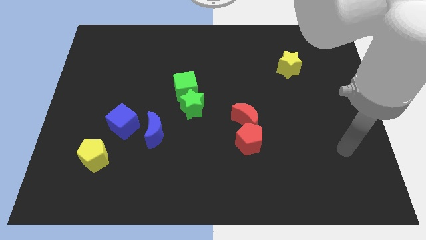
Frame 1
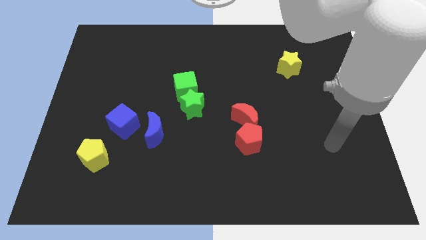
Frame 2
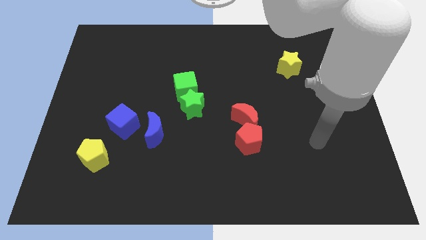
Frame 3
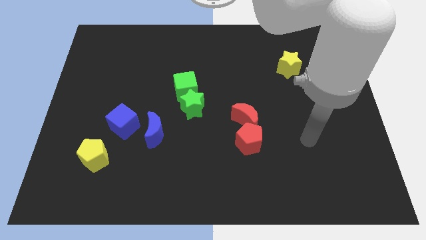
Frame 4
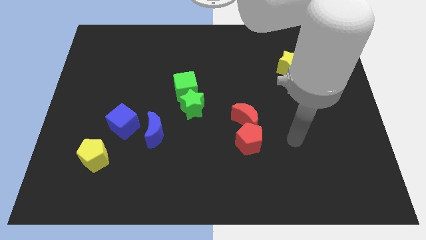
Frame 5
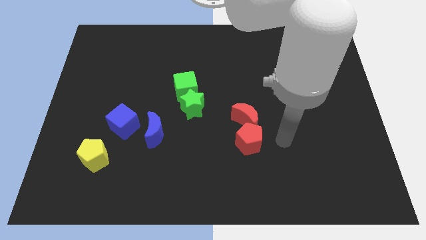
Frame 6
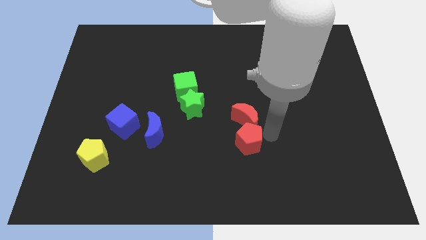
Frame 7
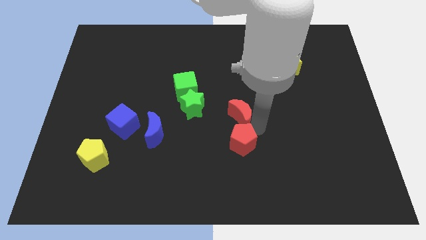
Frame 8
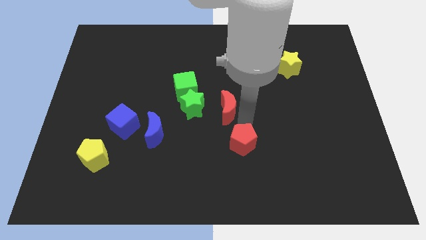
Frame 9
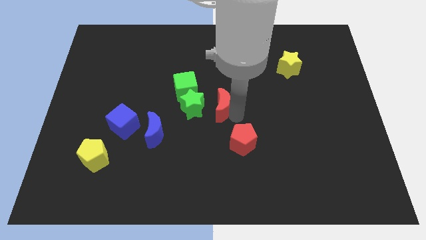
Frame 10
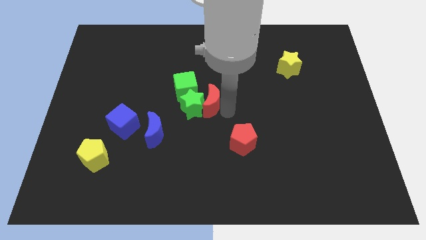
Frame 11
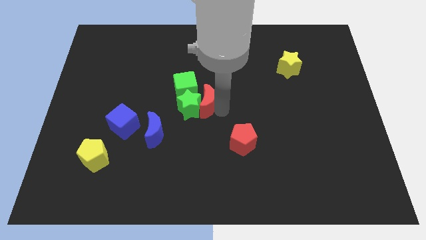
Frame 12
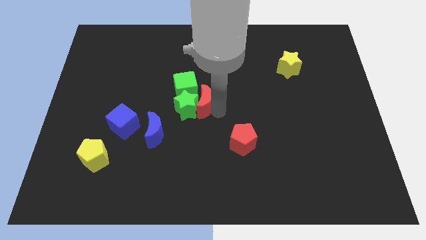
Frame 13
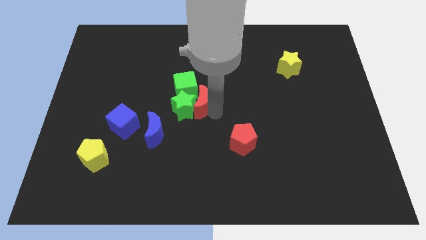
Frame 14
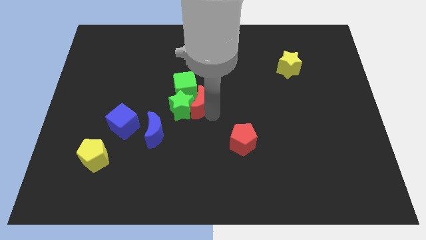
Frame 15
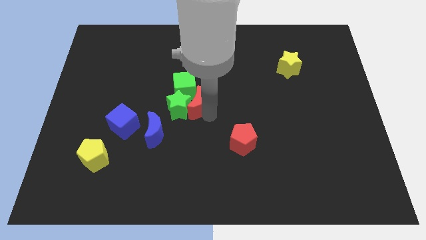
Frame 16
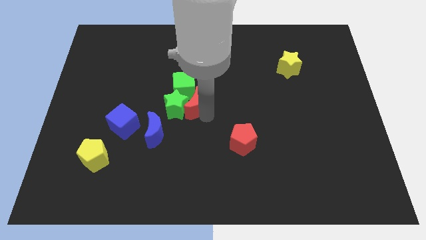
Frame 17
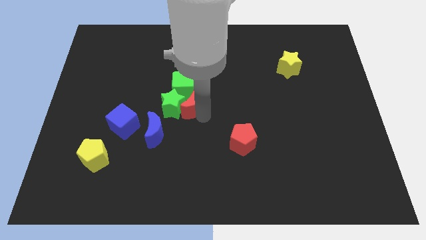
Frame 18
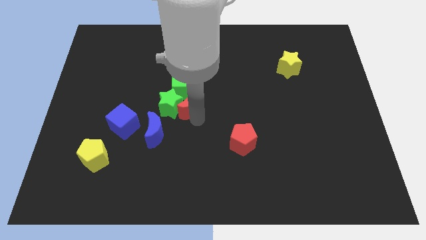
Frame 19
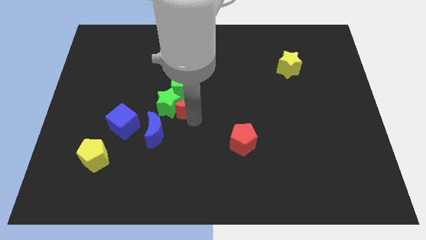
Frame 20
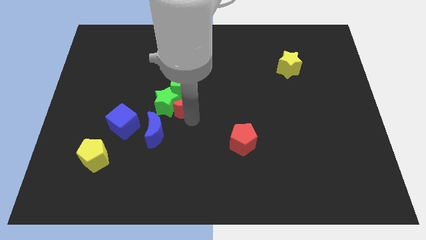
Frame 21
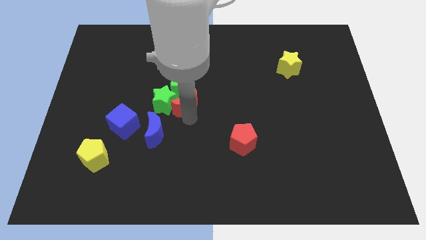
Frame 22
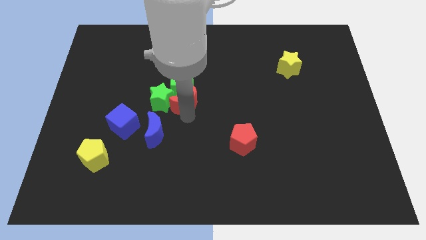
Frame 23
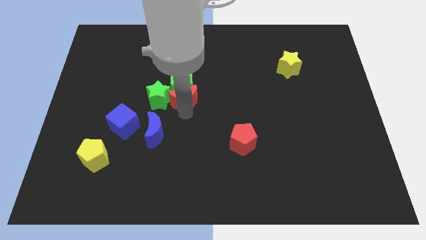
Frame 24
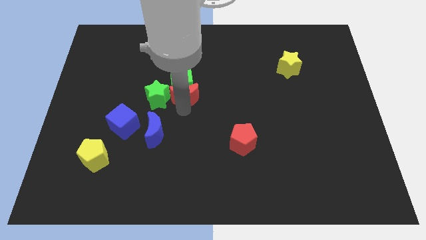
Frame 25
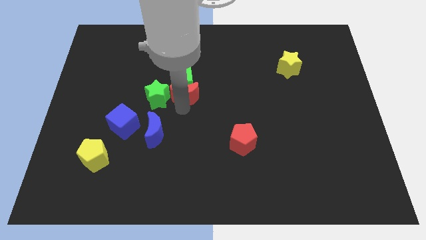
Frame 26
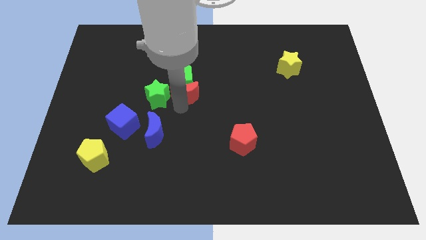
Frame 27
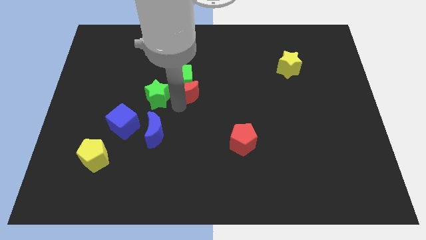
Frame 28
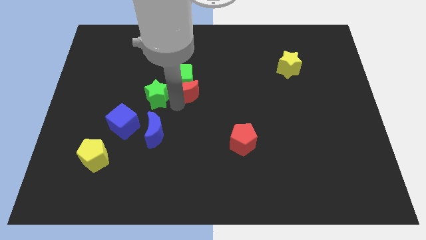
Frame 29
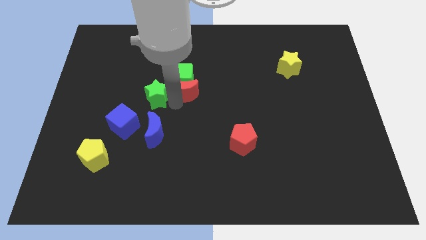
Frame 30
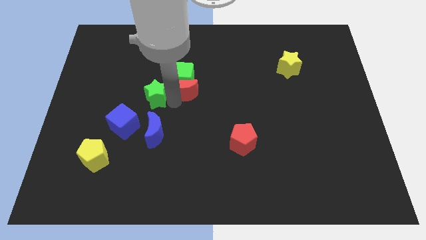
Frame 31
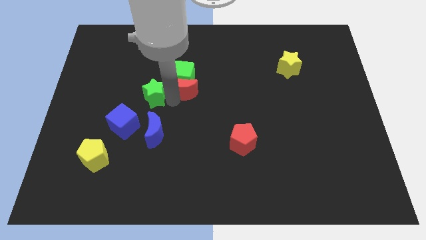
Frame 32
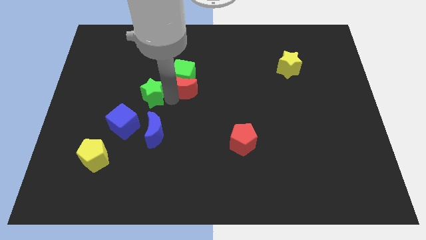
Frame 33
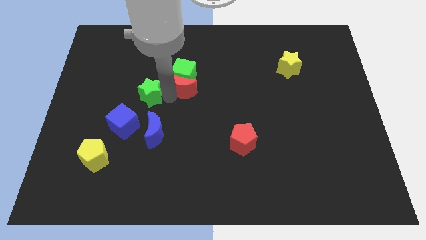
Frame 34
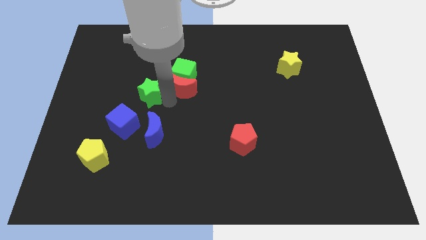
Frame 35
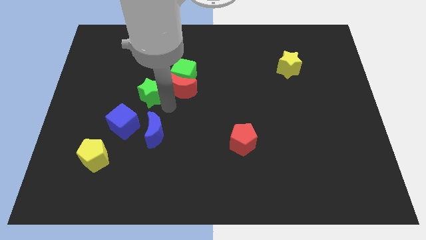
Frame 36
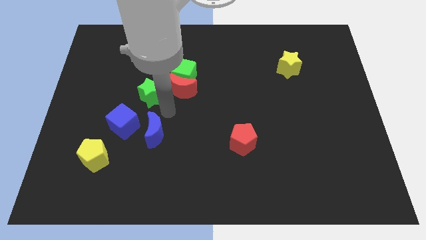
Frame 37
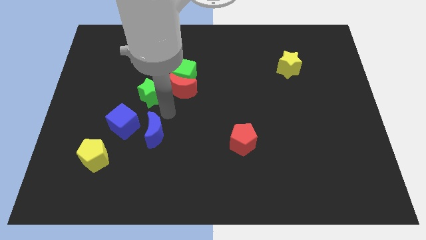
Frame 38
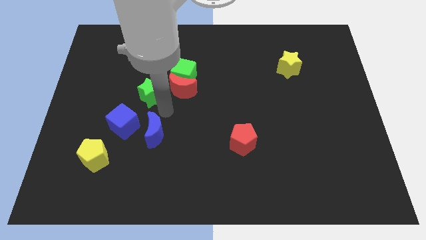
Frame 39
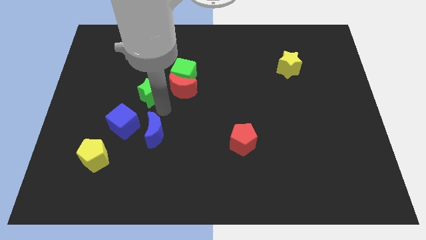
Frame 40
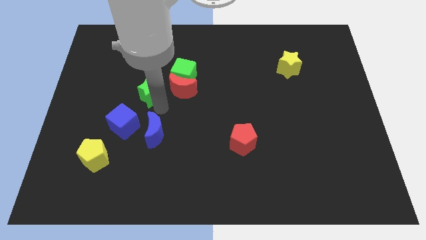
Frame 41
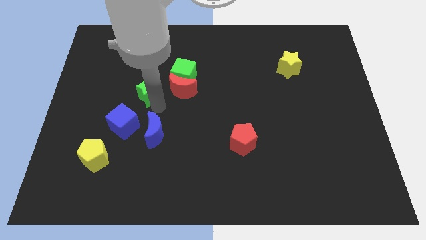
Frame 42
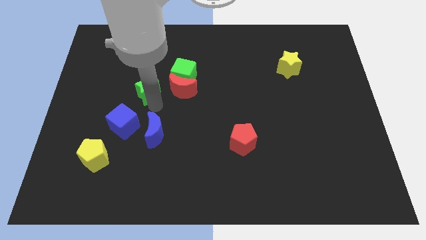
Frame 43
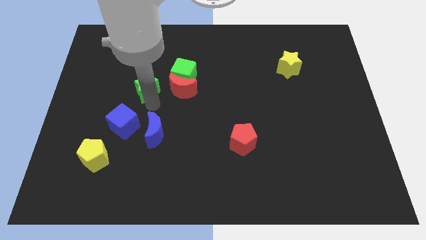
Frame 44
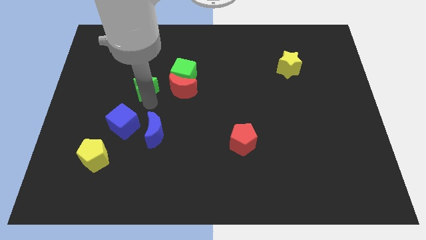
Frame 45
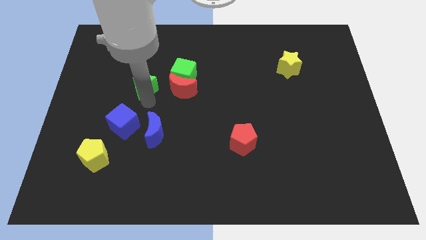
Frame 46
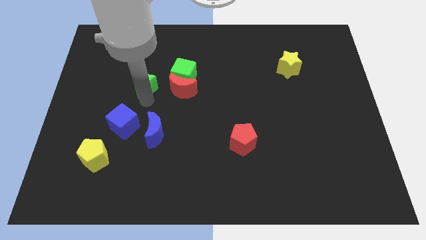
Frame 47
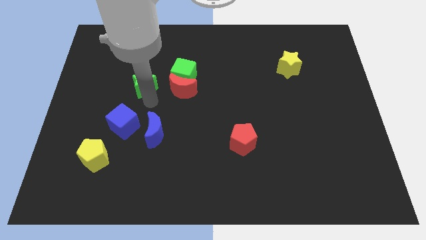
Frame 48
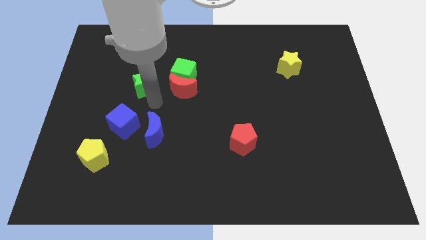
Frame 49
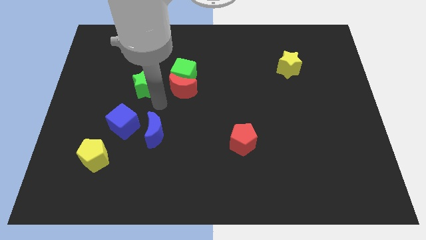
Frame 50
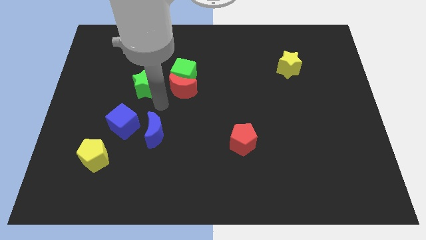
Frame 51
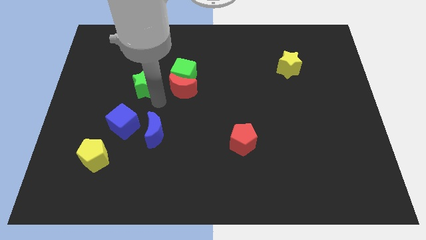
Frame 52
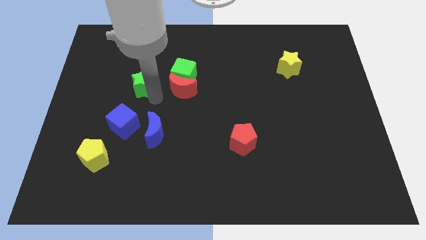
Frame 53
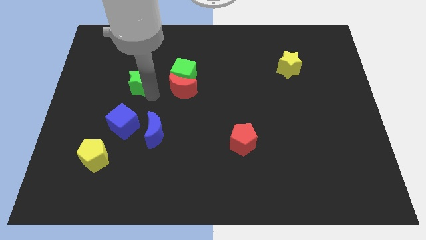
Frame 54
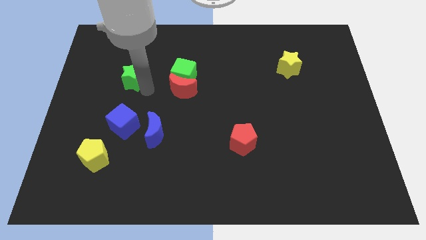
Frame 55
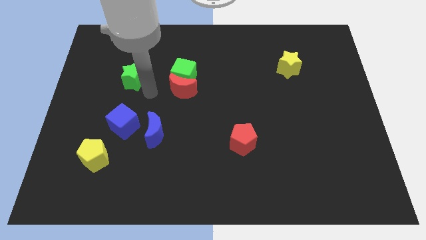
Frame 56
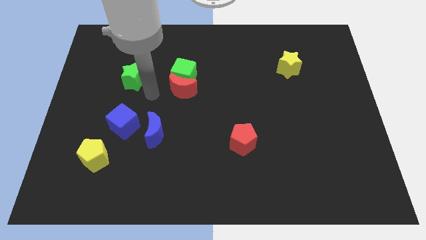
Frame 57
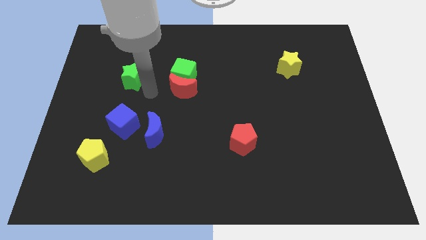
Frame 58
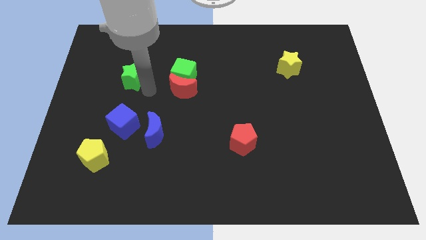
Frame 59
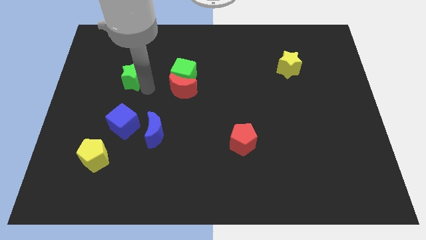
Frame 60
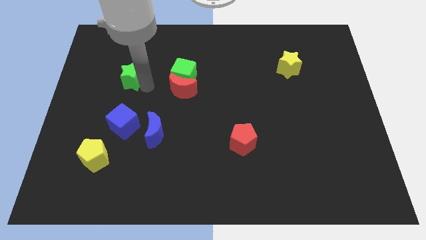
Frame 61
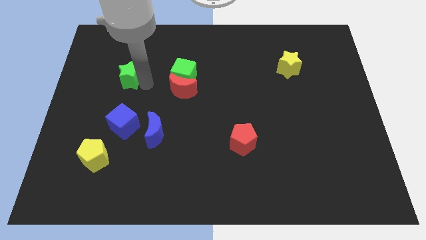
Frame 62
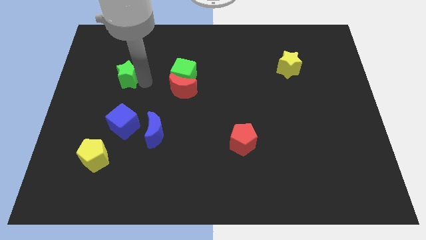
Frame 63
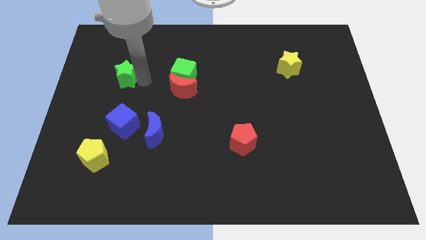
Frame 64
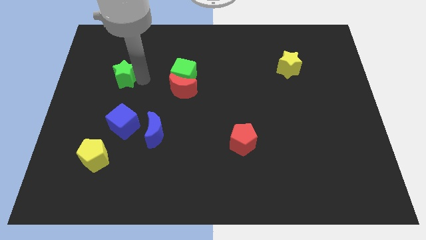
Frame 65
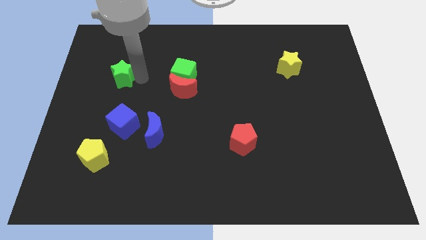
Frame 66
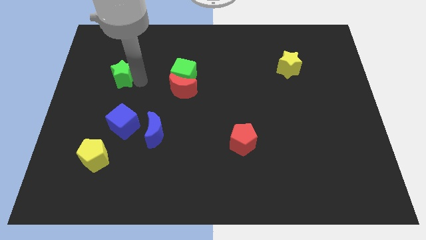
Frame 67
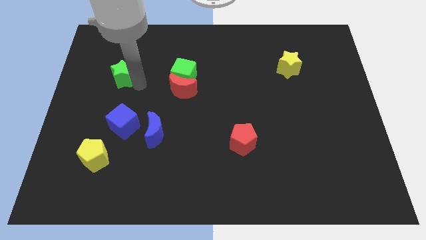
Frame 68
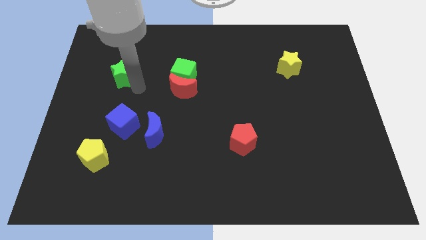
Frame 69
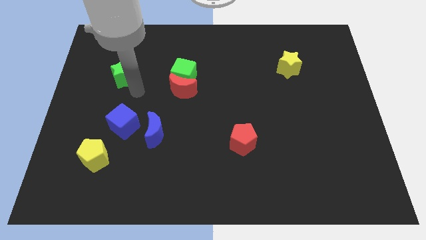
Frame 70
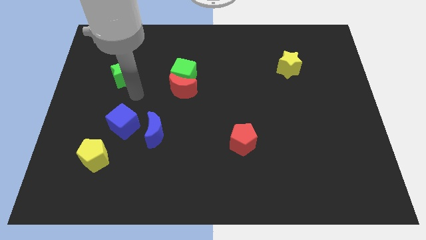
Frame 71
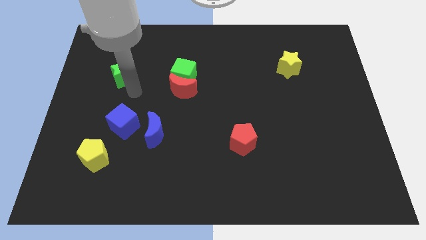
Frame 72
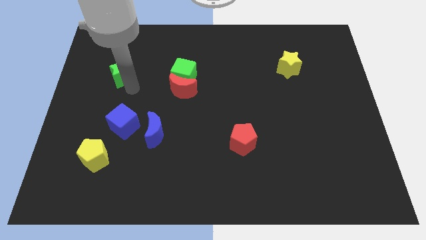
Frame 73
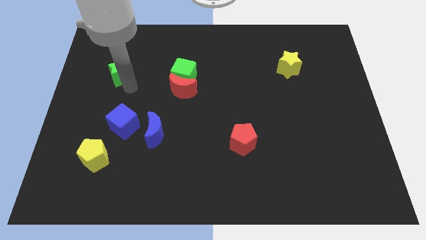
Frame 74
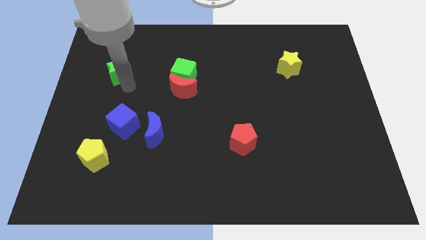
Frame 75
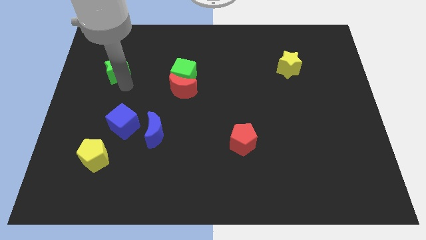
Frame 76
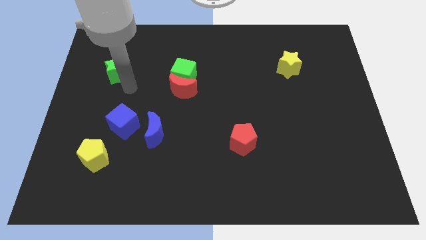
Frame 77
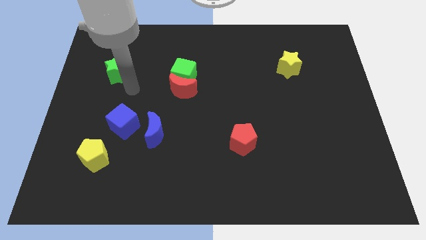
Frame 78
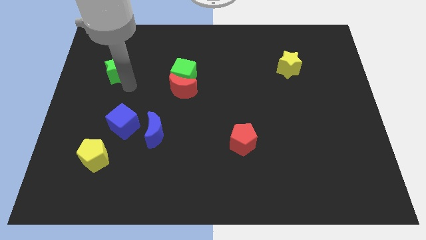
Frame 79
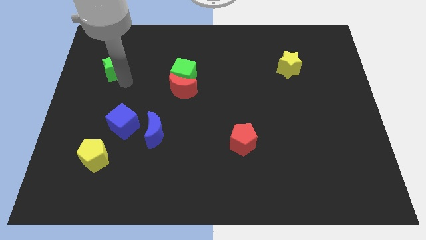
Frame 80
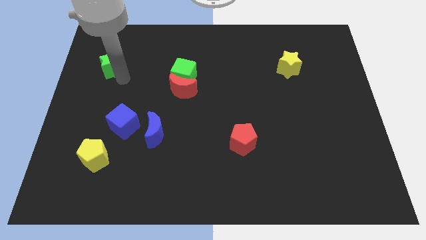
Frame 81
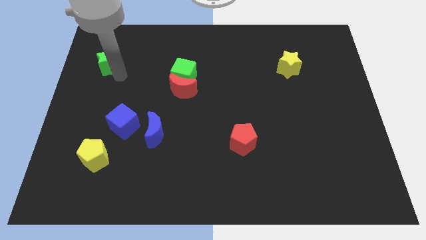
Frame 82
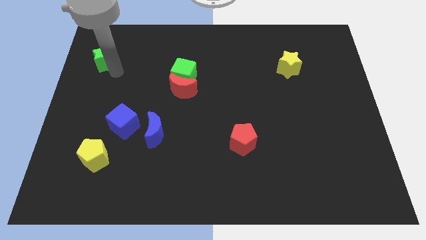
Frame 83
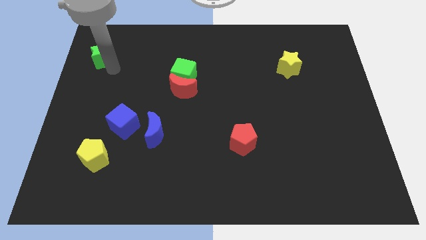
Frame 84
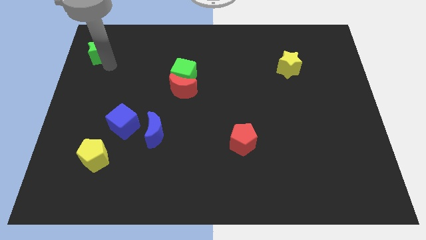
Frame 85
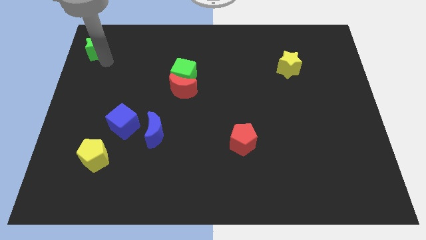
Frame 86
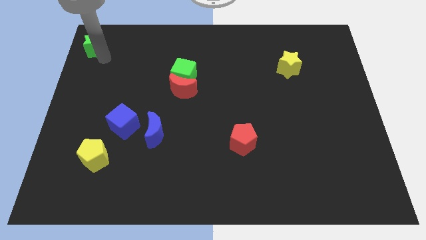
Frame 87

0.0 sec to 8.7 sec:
push the green star to the upper left corner
